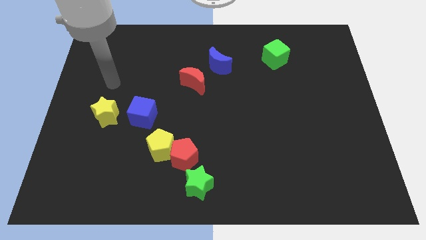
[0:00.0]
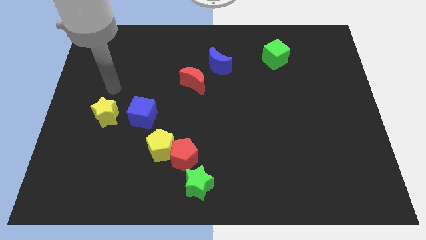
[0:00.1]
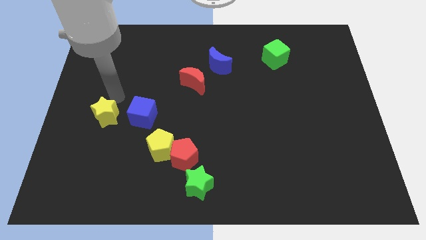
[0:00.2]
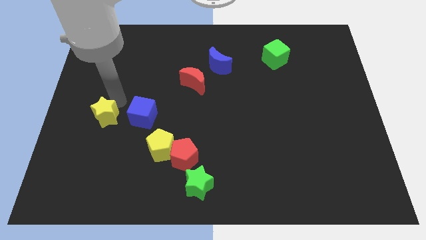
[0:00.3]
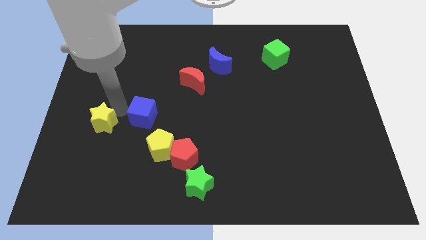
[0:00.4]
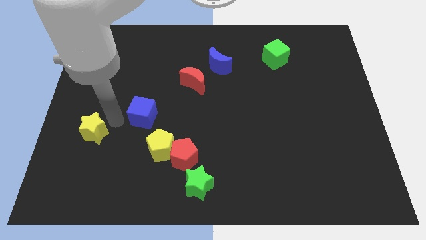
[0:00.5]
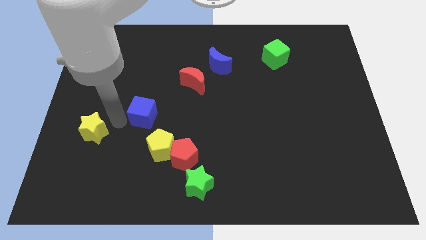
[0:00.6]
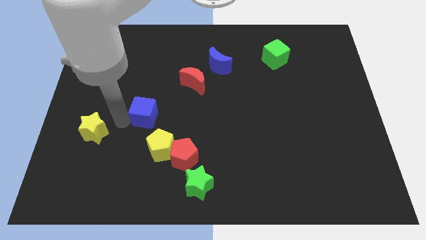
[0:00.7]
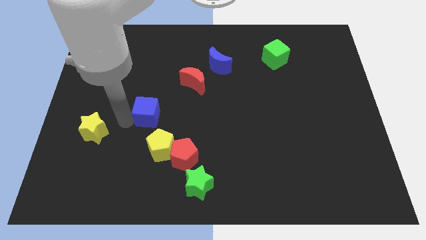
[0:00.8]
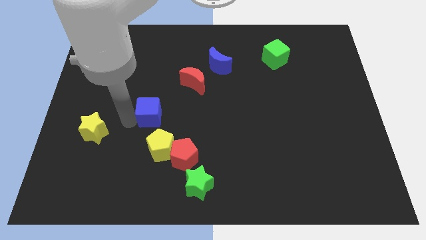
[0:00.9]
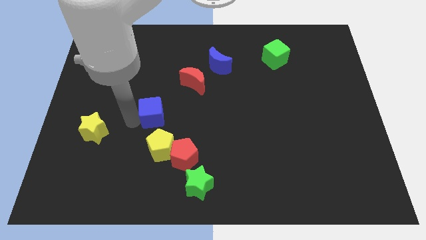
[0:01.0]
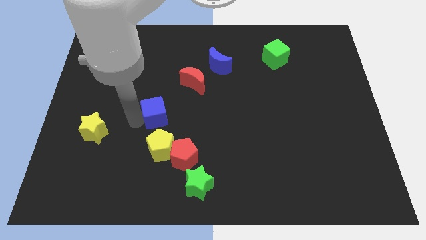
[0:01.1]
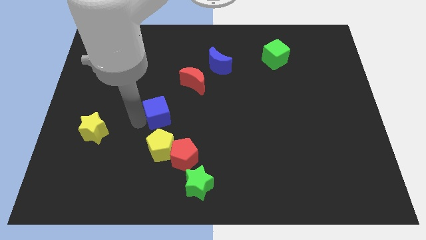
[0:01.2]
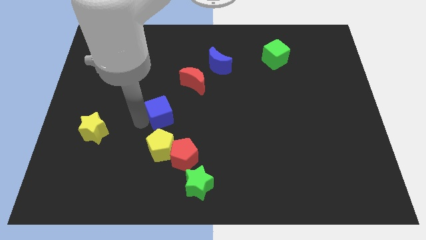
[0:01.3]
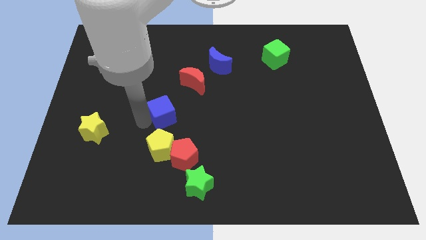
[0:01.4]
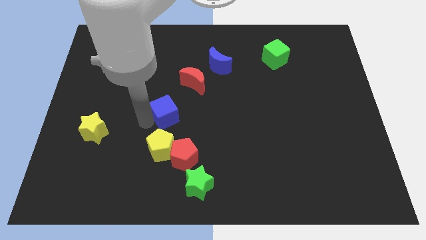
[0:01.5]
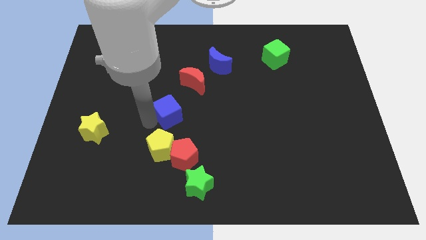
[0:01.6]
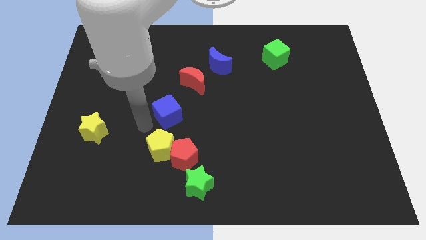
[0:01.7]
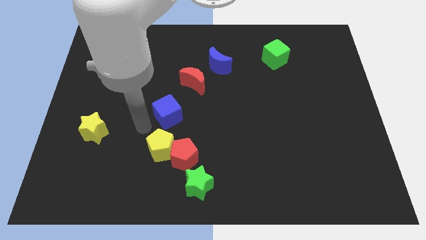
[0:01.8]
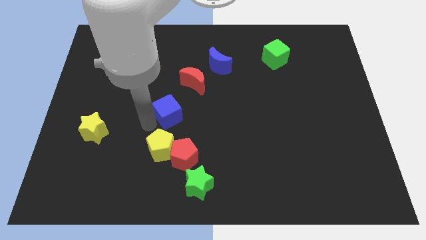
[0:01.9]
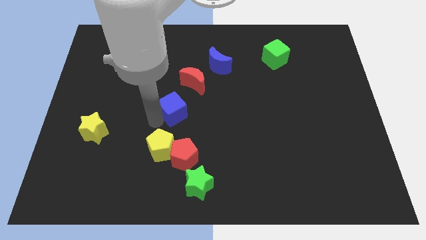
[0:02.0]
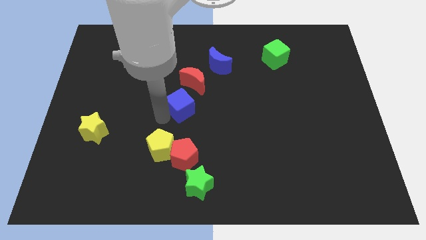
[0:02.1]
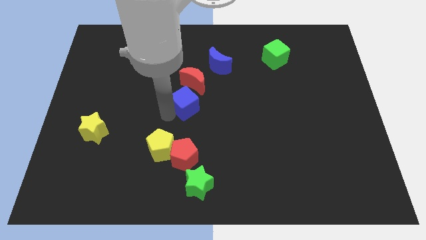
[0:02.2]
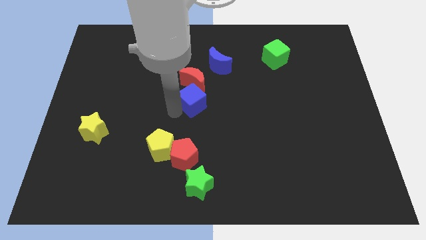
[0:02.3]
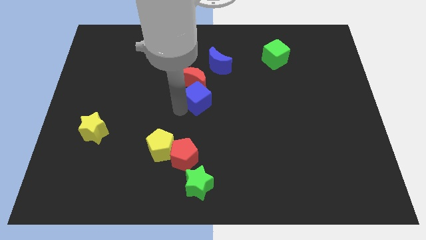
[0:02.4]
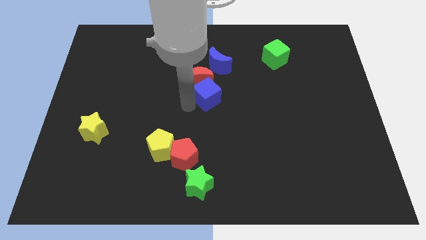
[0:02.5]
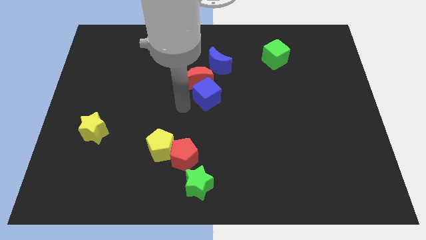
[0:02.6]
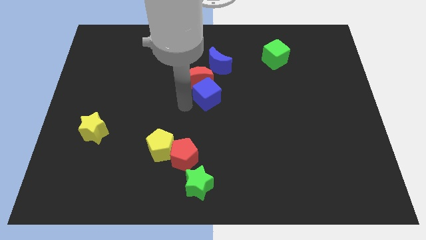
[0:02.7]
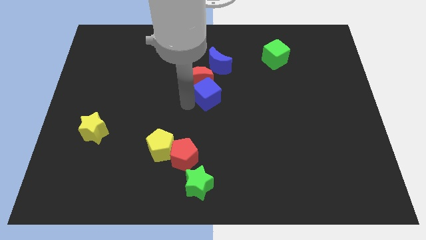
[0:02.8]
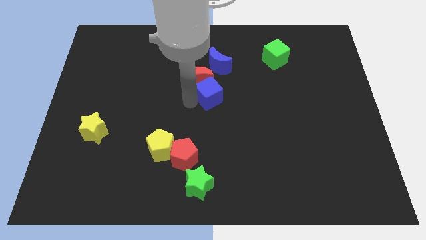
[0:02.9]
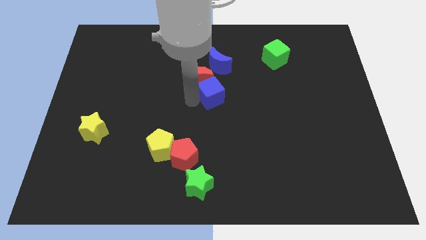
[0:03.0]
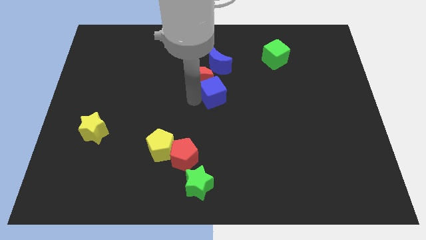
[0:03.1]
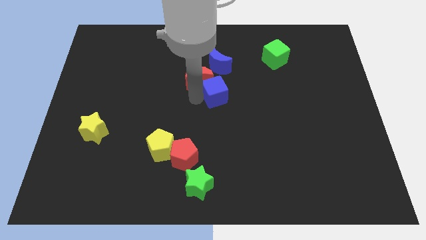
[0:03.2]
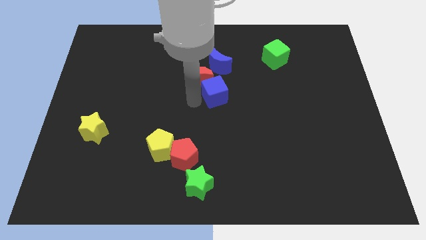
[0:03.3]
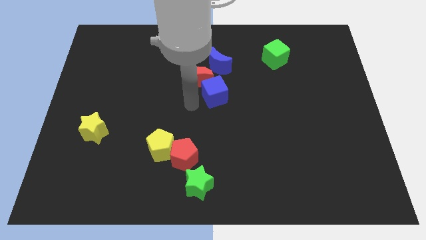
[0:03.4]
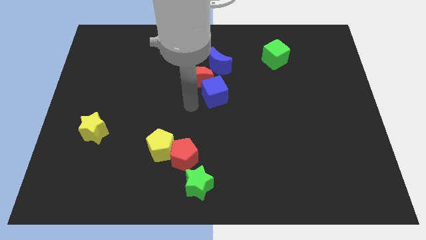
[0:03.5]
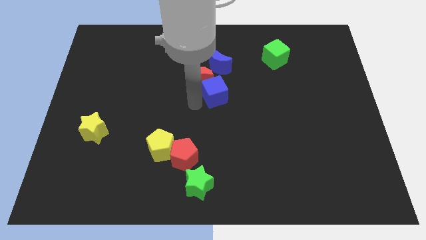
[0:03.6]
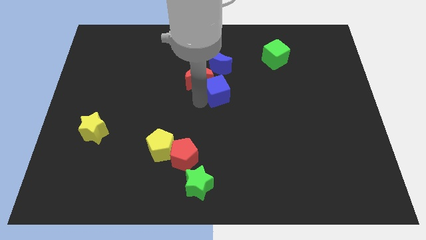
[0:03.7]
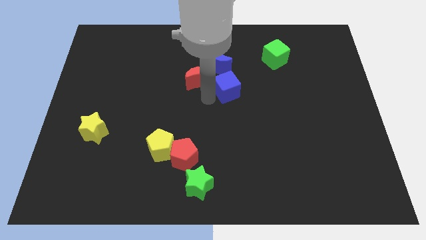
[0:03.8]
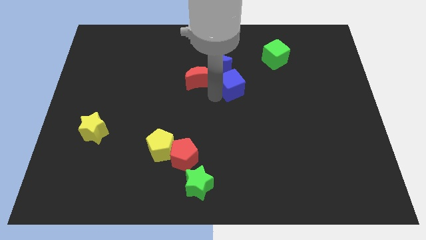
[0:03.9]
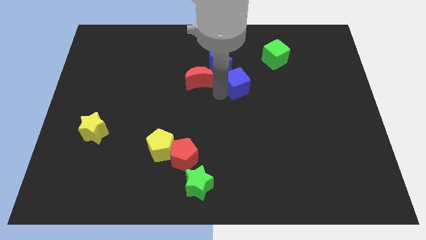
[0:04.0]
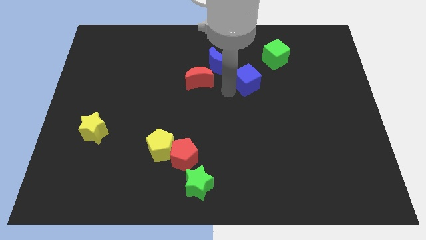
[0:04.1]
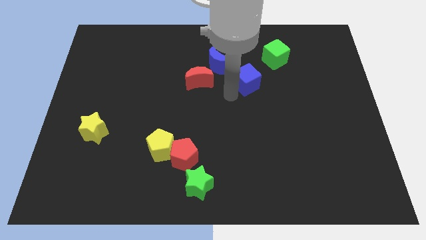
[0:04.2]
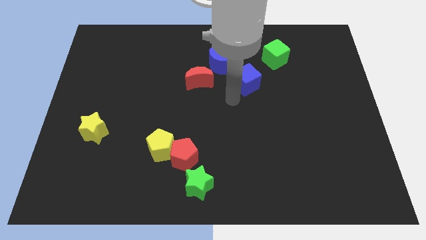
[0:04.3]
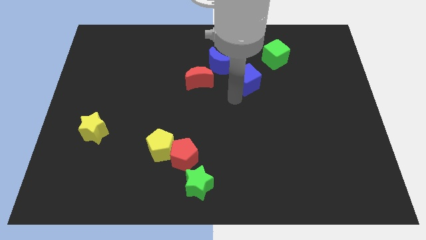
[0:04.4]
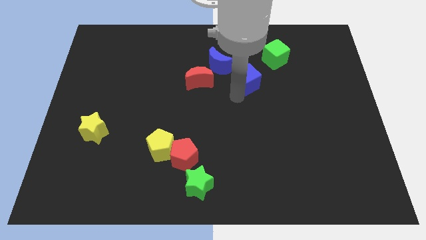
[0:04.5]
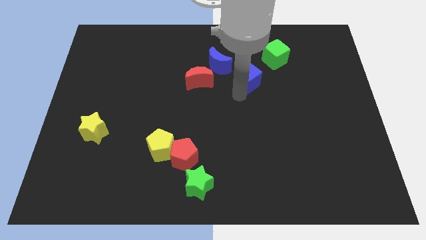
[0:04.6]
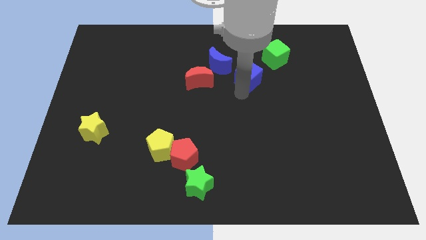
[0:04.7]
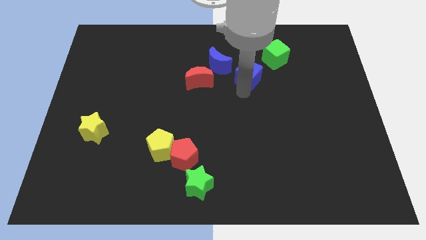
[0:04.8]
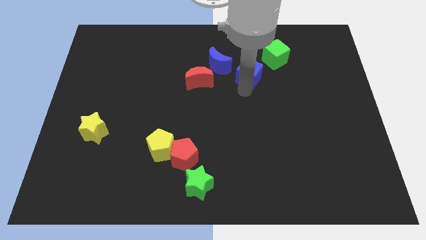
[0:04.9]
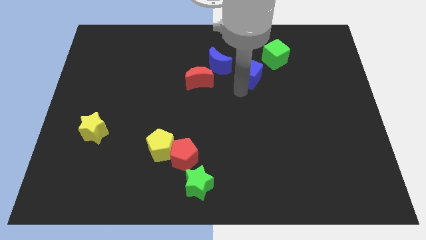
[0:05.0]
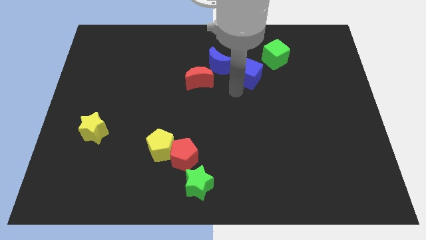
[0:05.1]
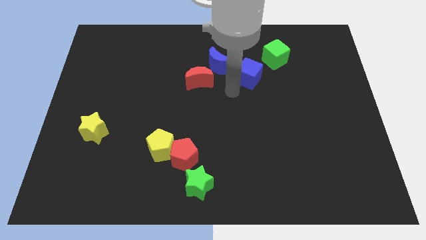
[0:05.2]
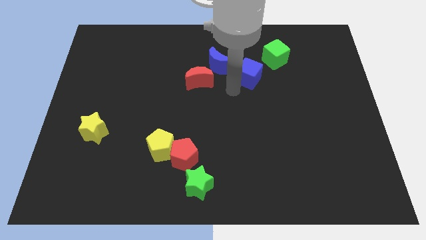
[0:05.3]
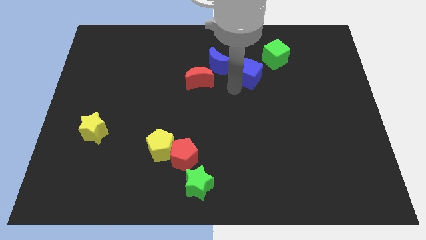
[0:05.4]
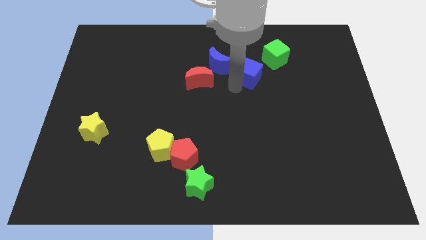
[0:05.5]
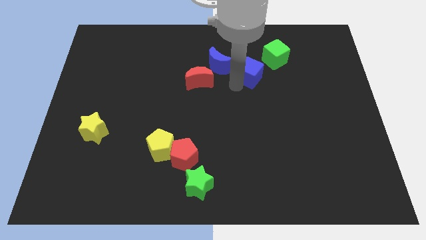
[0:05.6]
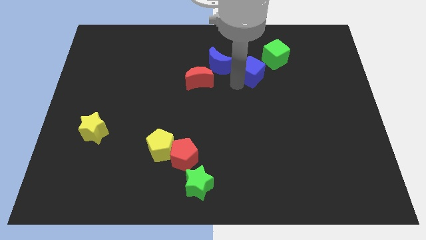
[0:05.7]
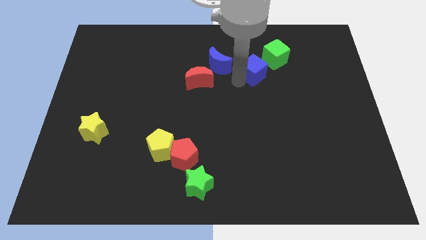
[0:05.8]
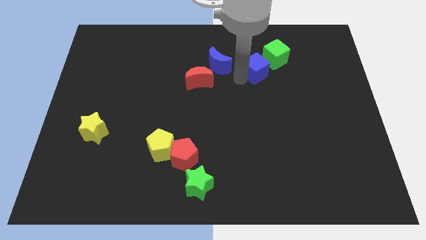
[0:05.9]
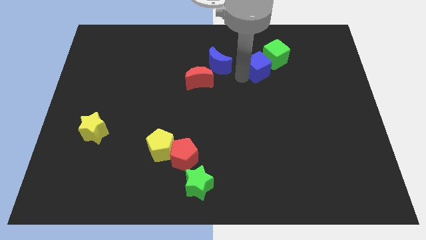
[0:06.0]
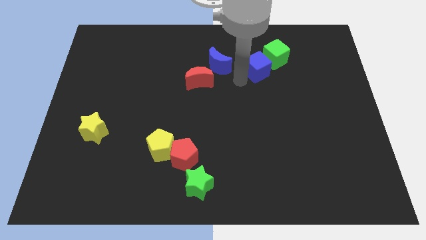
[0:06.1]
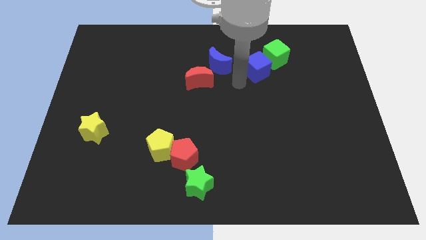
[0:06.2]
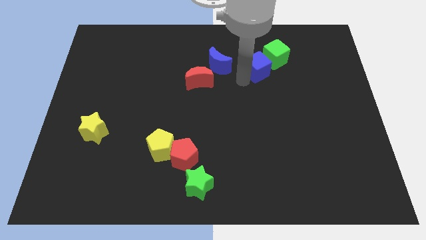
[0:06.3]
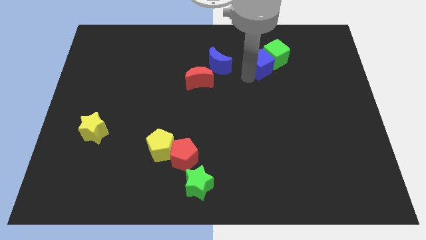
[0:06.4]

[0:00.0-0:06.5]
push the blue cube next to the green cube
